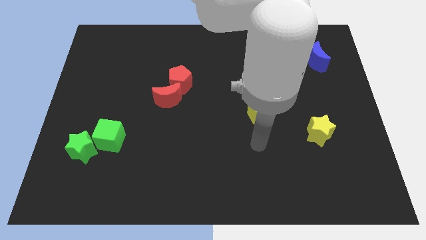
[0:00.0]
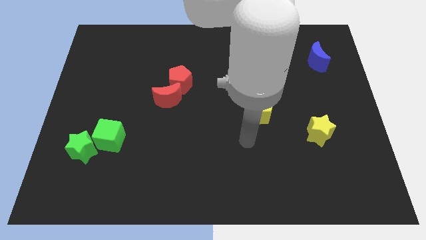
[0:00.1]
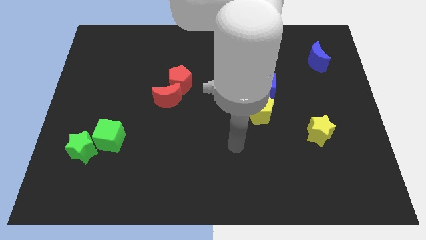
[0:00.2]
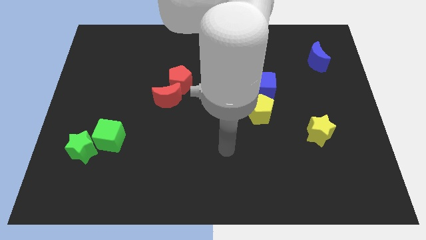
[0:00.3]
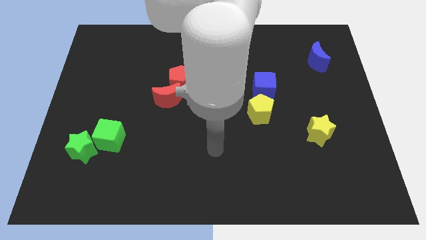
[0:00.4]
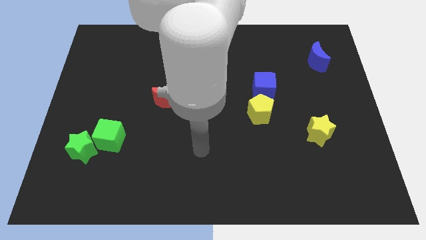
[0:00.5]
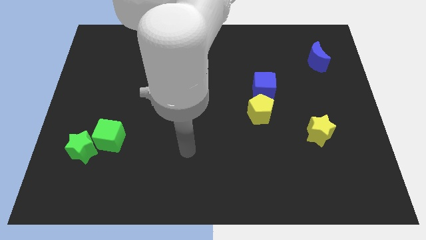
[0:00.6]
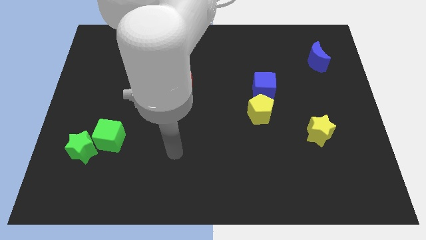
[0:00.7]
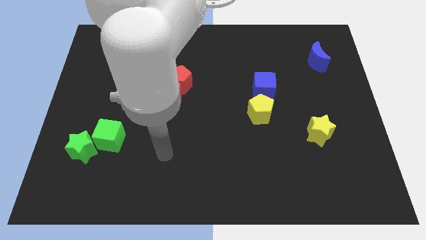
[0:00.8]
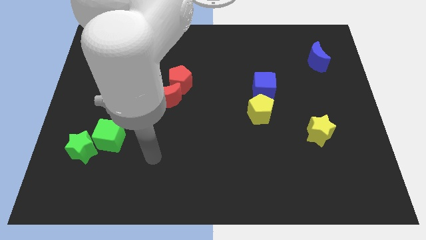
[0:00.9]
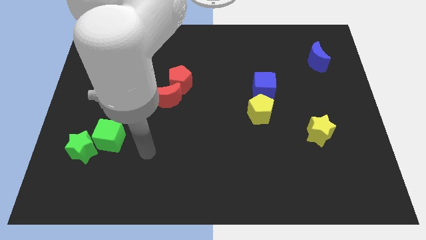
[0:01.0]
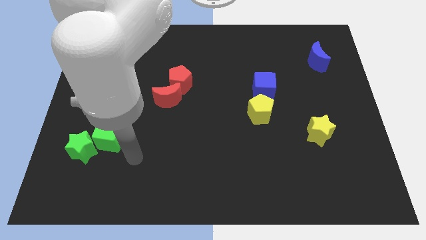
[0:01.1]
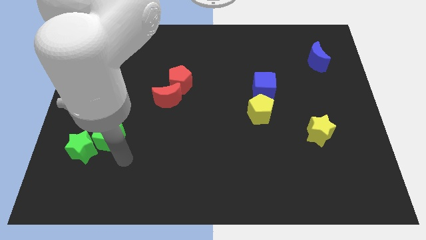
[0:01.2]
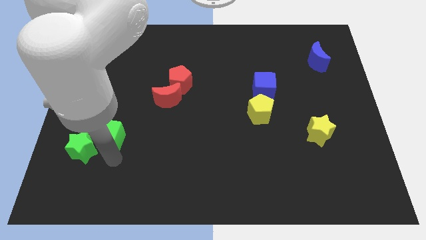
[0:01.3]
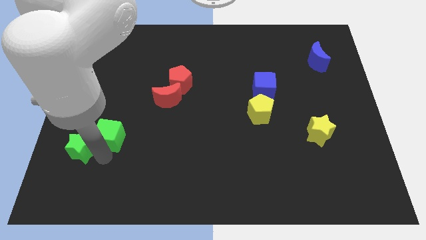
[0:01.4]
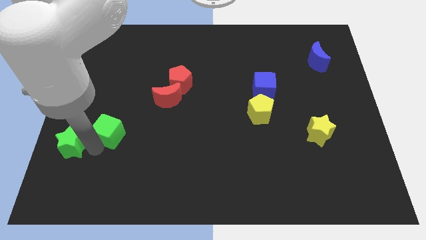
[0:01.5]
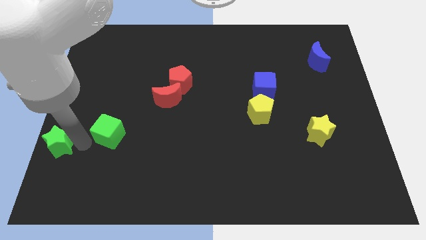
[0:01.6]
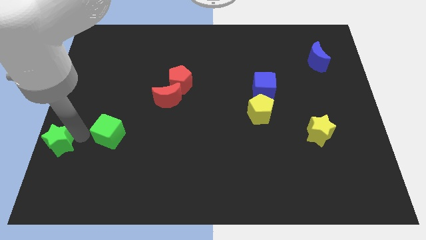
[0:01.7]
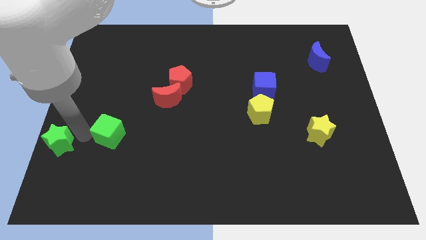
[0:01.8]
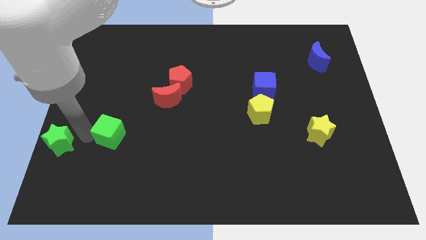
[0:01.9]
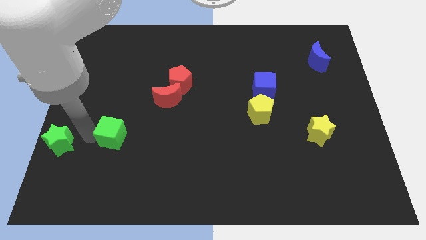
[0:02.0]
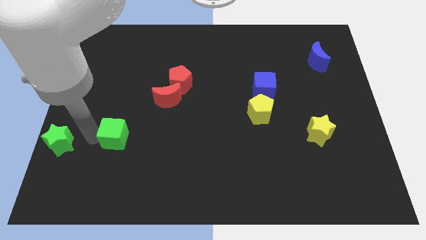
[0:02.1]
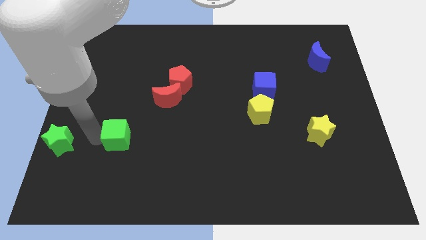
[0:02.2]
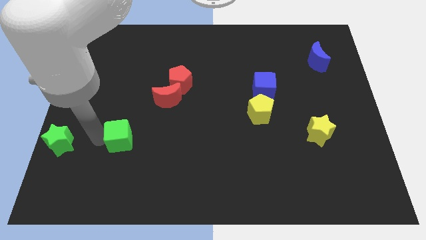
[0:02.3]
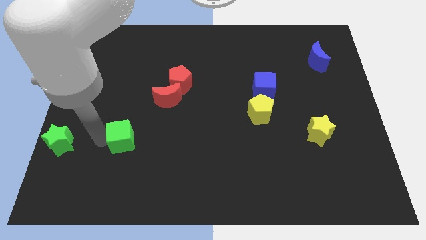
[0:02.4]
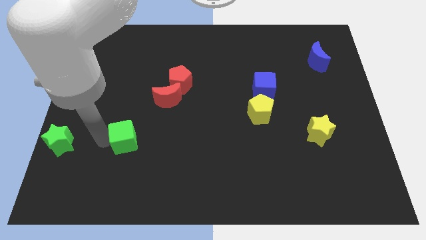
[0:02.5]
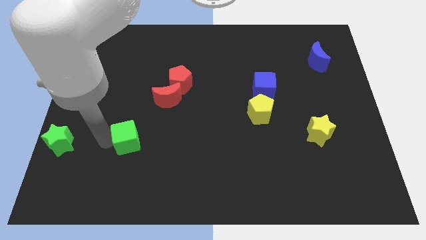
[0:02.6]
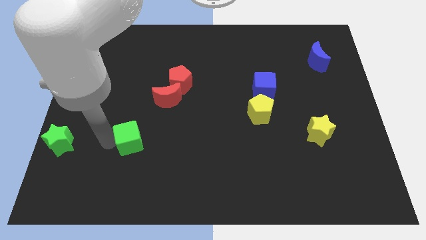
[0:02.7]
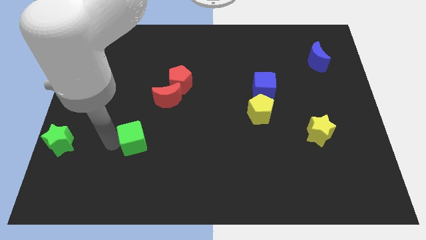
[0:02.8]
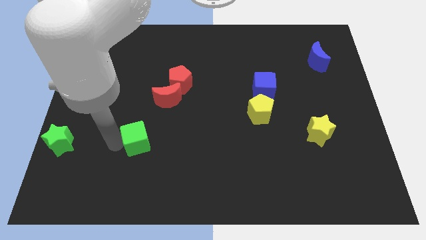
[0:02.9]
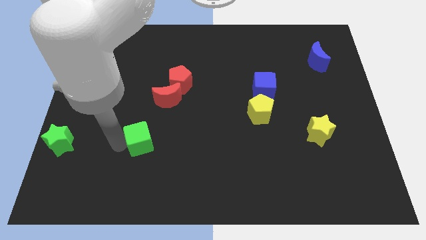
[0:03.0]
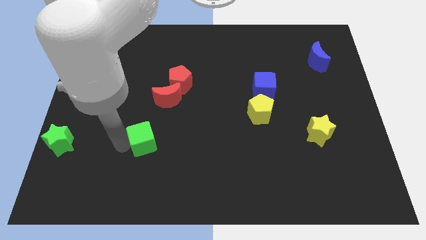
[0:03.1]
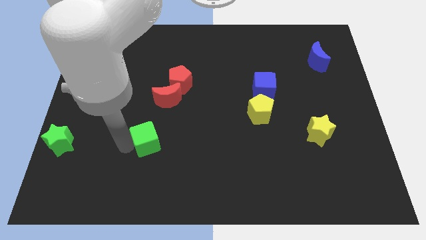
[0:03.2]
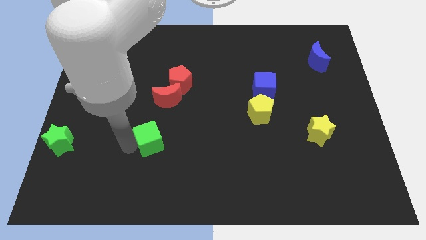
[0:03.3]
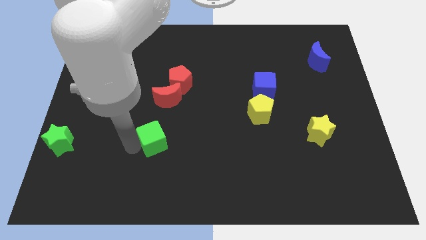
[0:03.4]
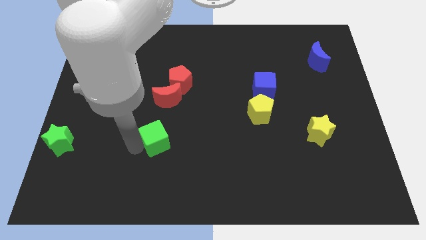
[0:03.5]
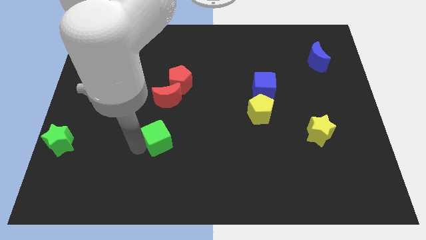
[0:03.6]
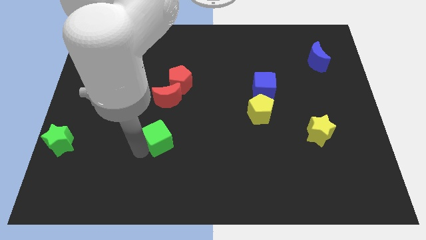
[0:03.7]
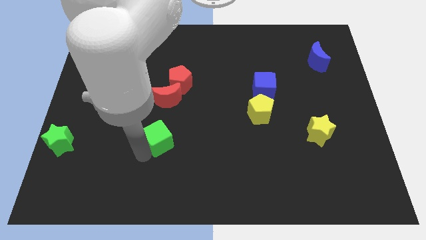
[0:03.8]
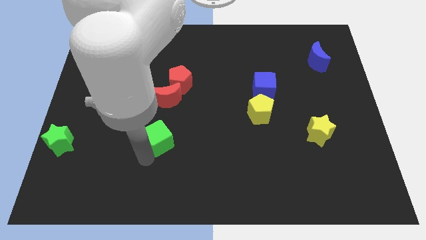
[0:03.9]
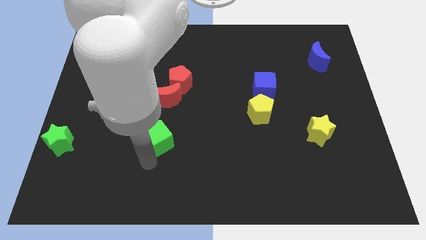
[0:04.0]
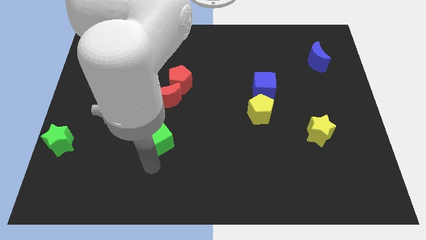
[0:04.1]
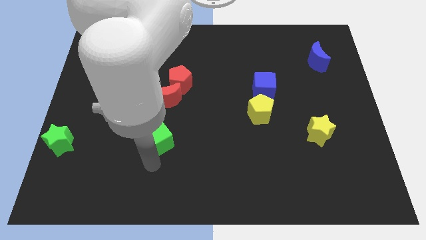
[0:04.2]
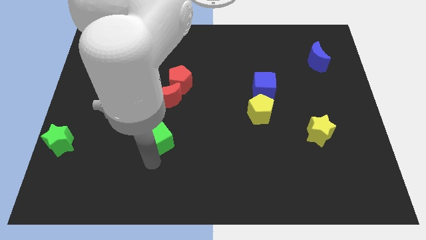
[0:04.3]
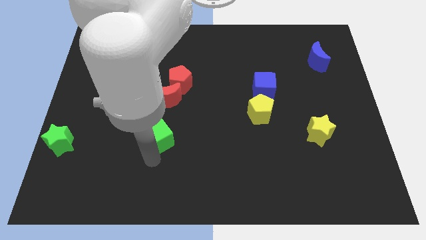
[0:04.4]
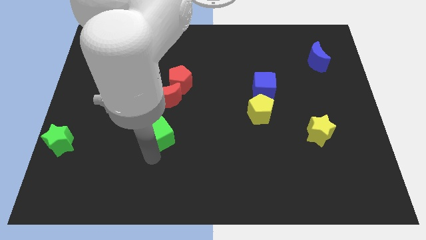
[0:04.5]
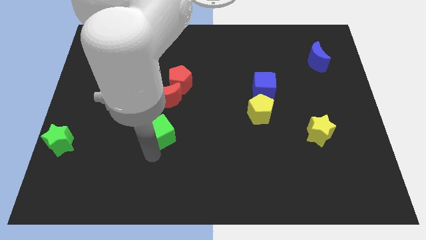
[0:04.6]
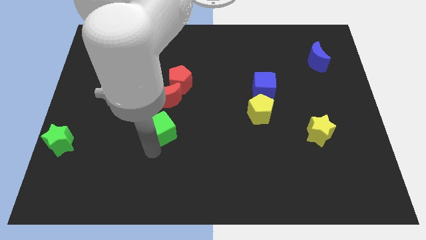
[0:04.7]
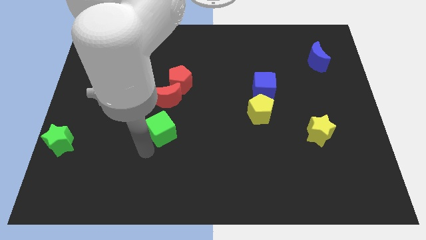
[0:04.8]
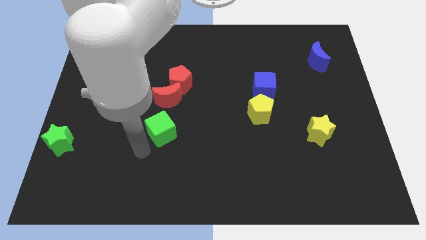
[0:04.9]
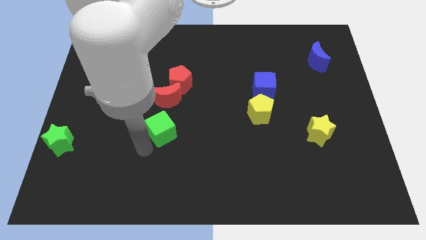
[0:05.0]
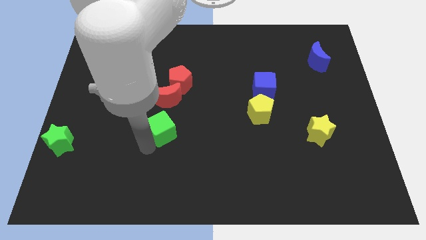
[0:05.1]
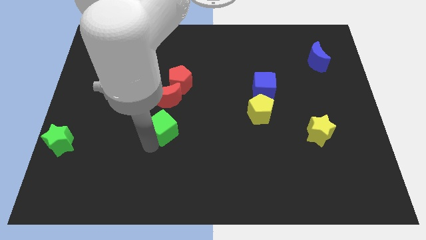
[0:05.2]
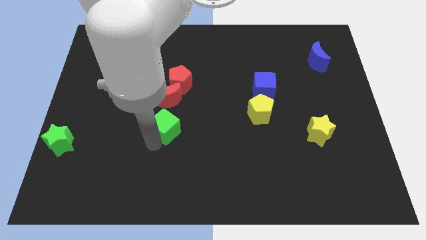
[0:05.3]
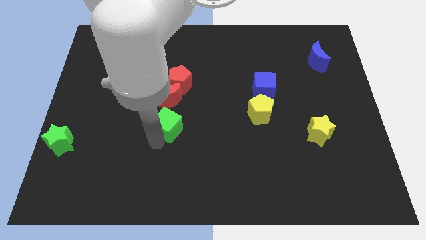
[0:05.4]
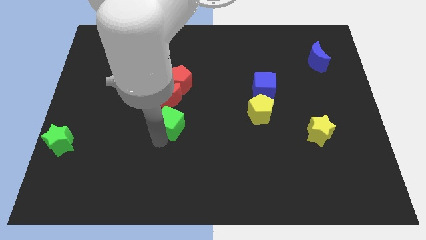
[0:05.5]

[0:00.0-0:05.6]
move the green cube to the middle

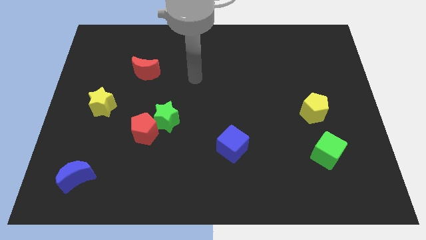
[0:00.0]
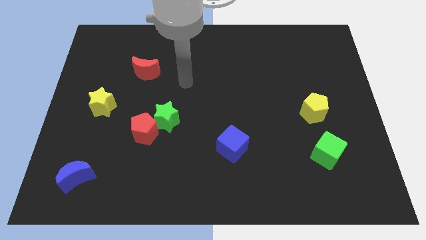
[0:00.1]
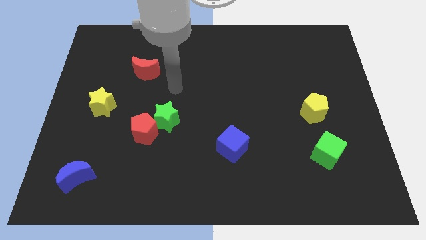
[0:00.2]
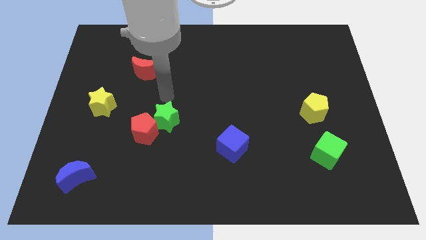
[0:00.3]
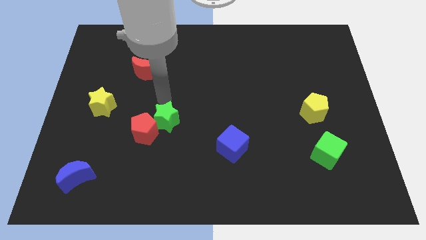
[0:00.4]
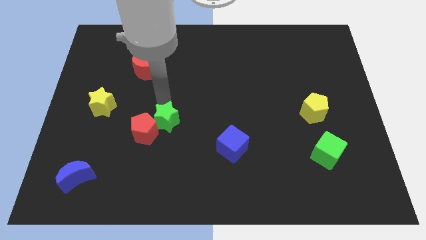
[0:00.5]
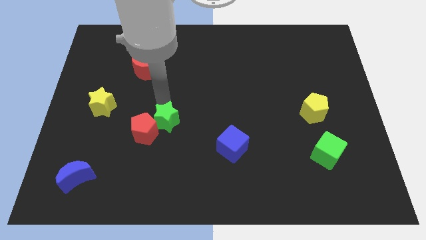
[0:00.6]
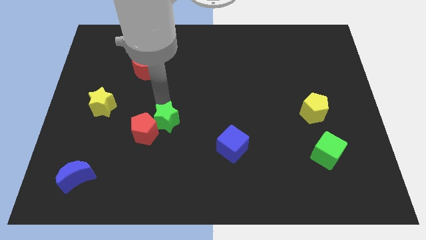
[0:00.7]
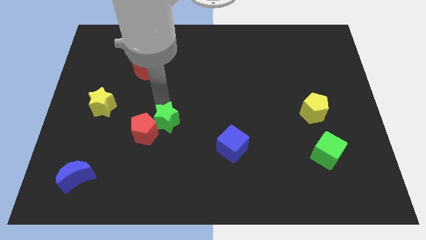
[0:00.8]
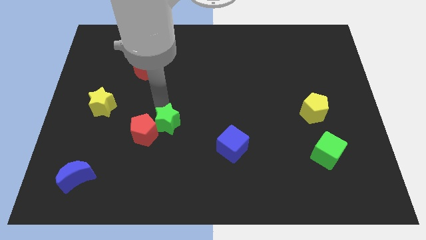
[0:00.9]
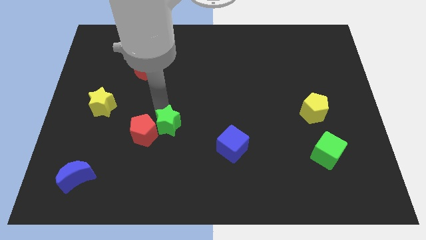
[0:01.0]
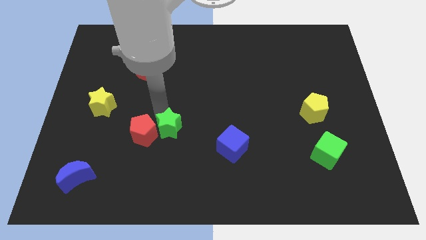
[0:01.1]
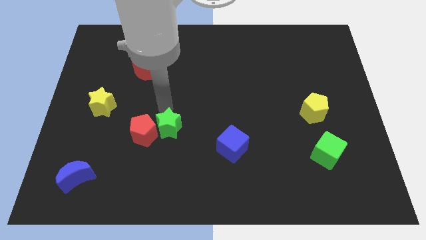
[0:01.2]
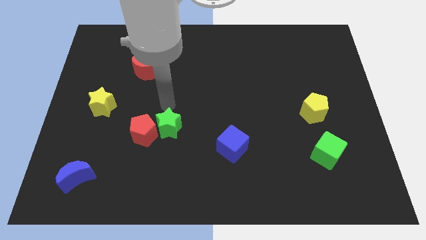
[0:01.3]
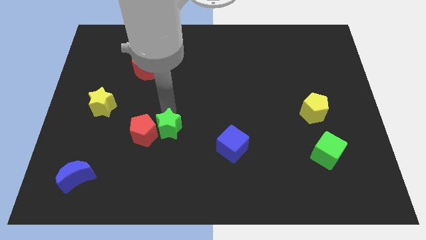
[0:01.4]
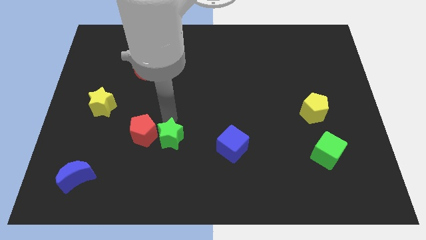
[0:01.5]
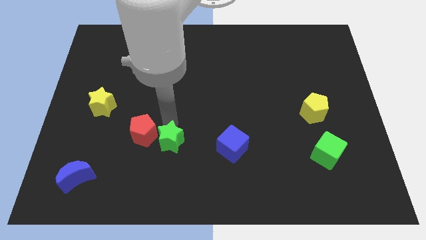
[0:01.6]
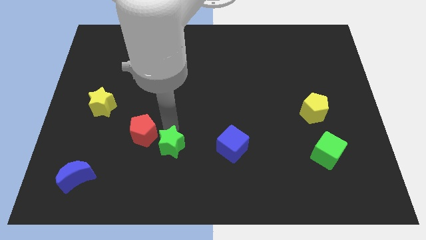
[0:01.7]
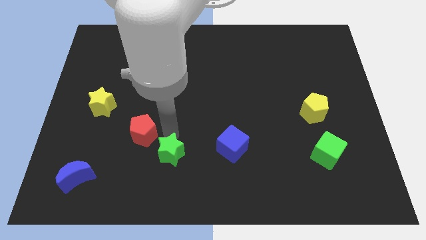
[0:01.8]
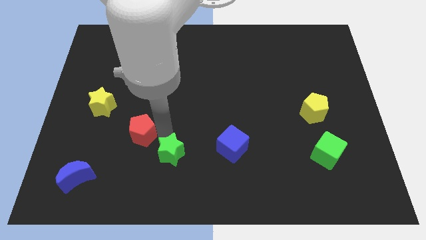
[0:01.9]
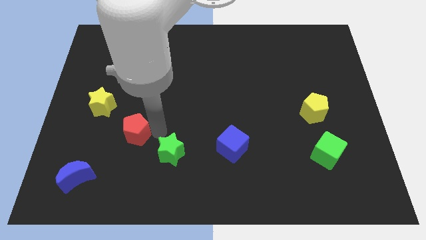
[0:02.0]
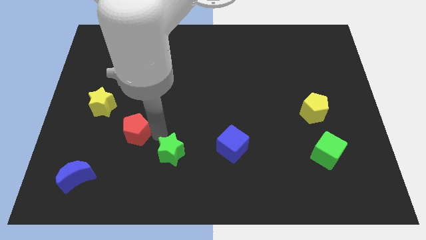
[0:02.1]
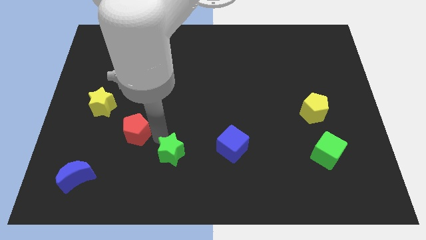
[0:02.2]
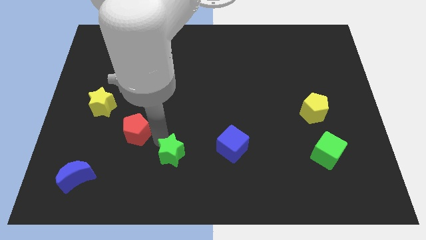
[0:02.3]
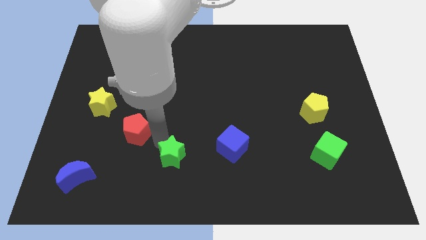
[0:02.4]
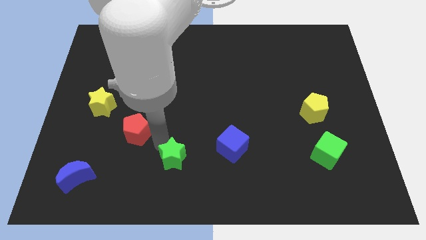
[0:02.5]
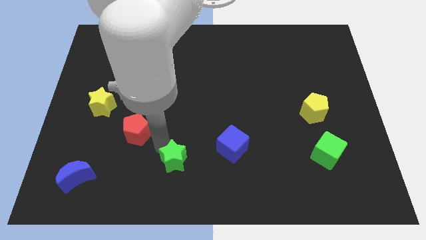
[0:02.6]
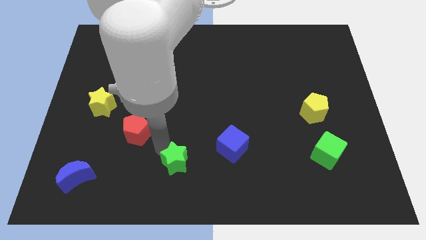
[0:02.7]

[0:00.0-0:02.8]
put the green star to the bottom
